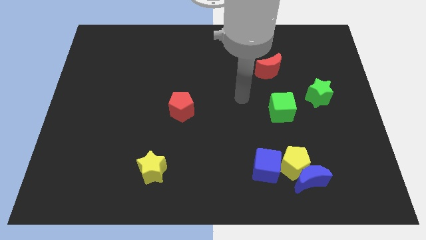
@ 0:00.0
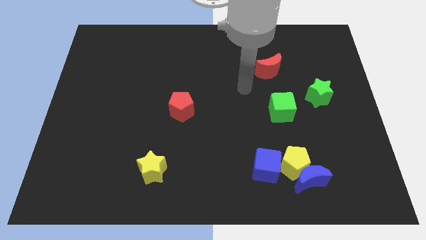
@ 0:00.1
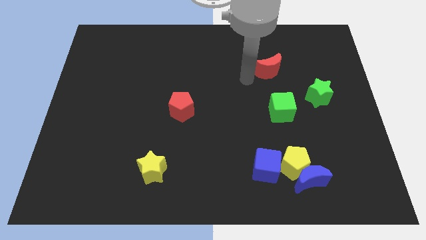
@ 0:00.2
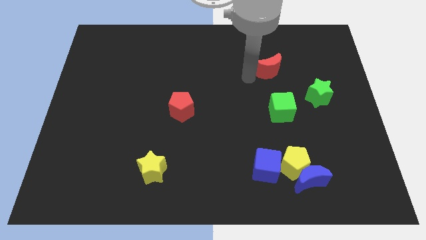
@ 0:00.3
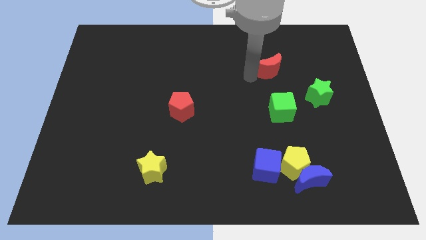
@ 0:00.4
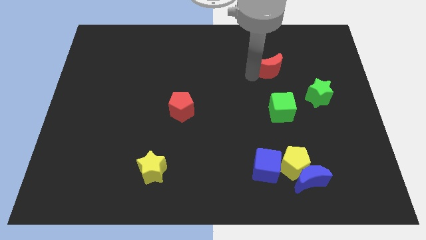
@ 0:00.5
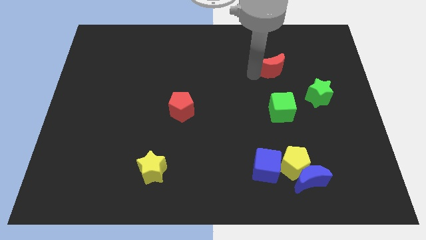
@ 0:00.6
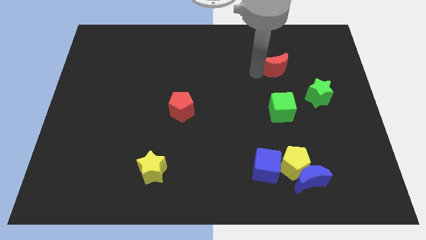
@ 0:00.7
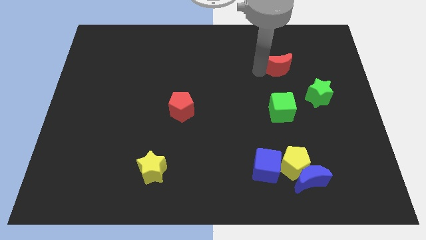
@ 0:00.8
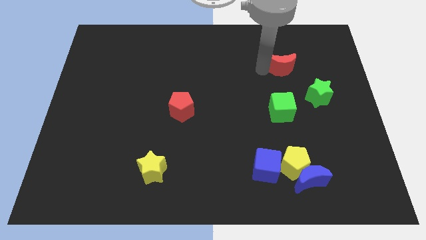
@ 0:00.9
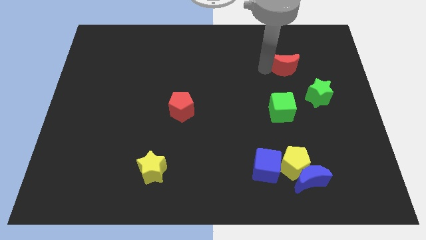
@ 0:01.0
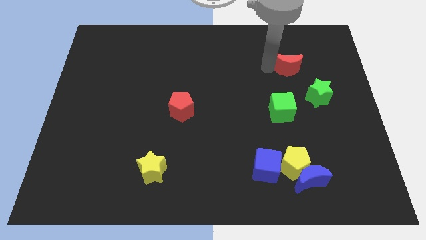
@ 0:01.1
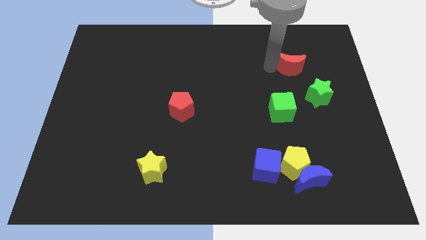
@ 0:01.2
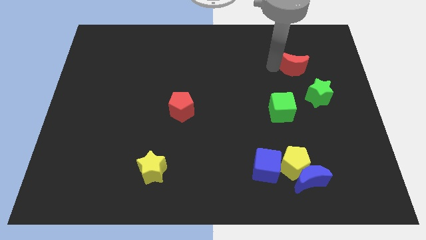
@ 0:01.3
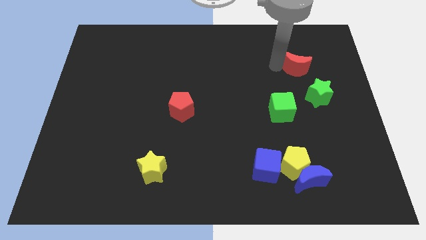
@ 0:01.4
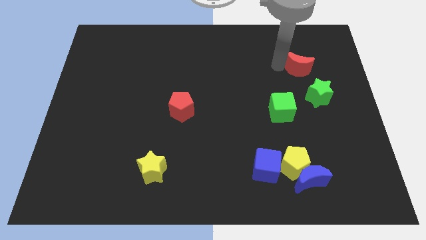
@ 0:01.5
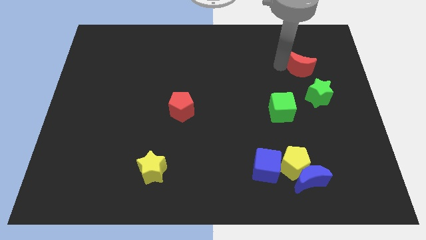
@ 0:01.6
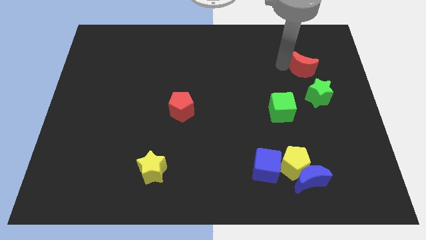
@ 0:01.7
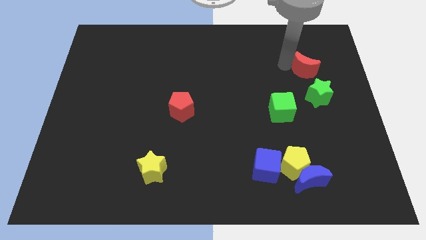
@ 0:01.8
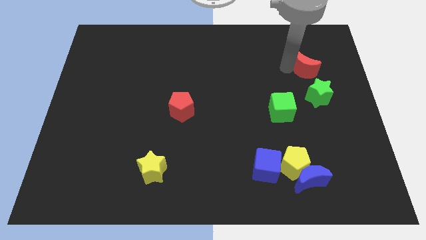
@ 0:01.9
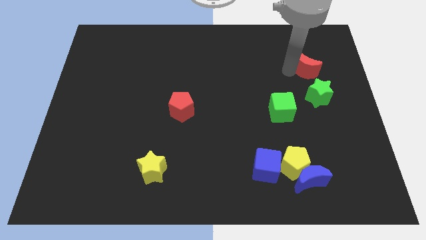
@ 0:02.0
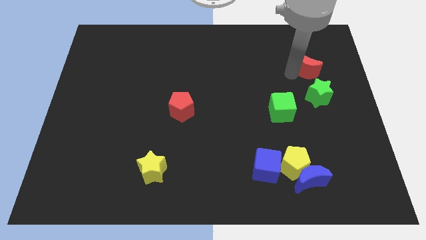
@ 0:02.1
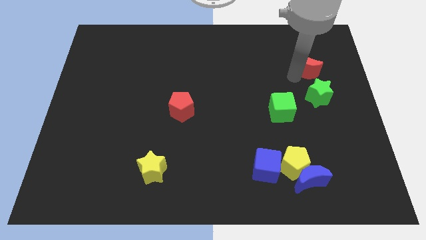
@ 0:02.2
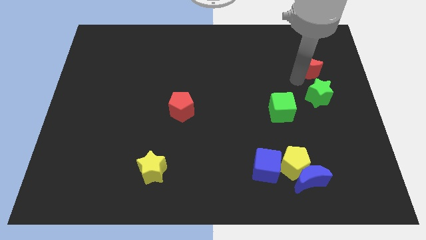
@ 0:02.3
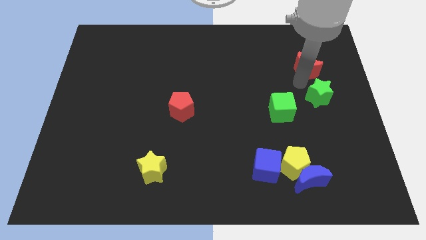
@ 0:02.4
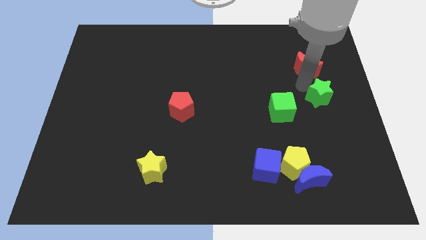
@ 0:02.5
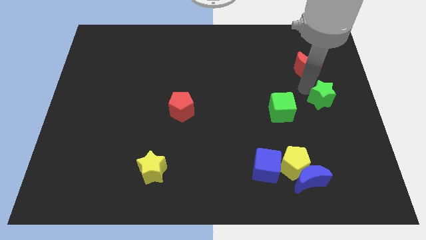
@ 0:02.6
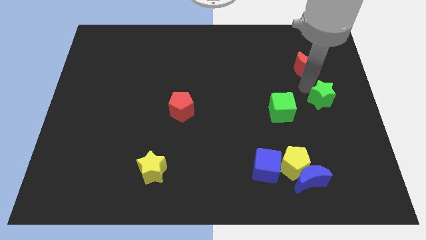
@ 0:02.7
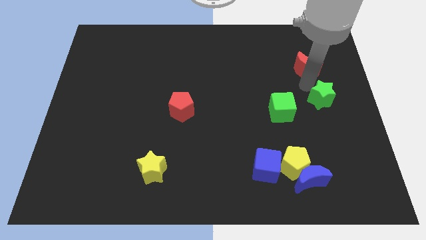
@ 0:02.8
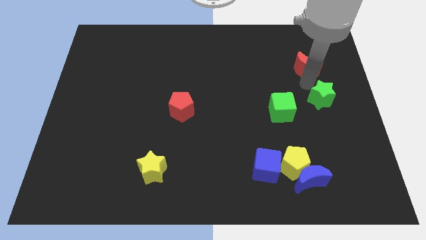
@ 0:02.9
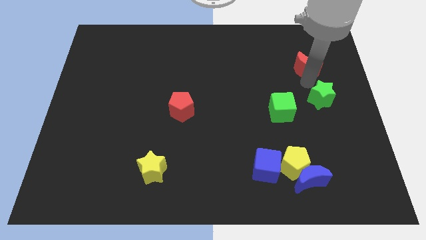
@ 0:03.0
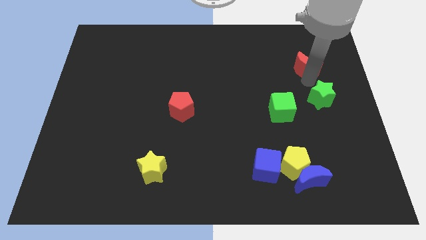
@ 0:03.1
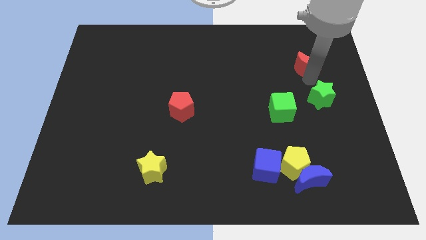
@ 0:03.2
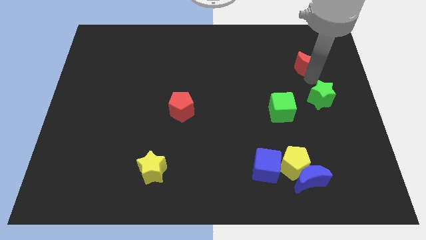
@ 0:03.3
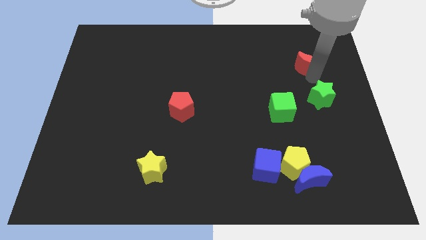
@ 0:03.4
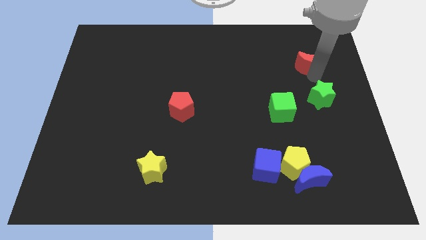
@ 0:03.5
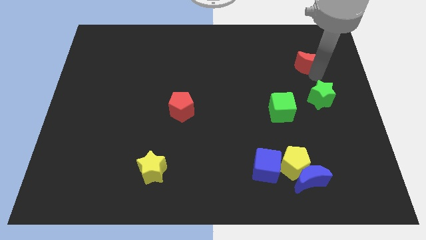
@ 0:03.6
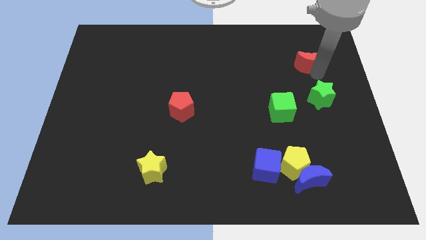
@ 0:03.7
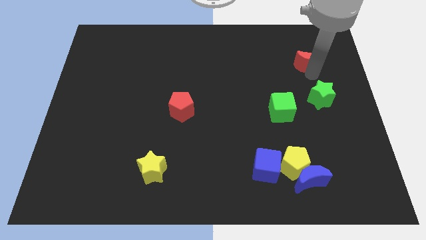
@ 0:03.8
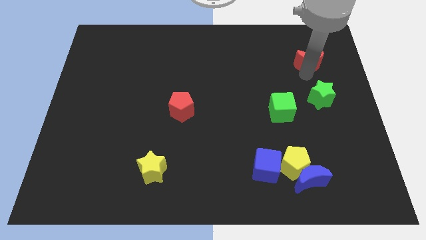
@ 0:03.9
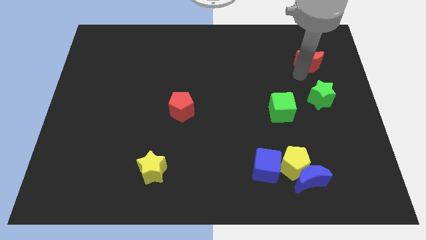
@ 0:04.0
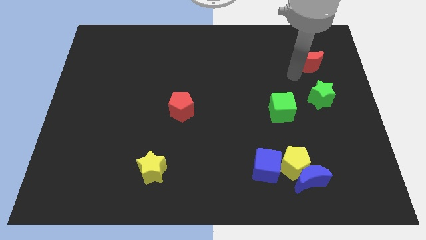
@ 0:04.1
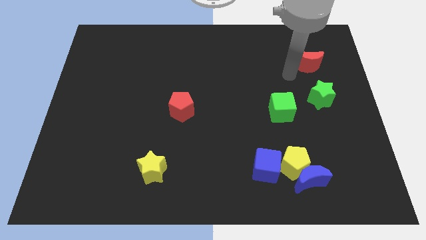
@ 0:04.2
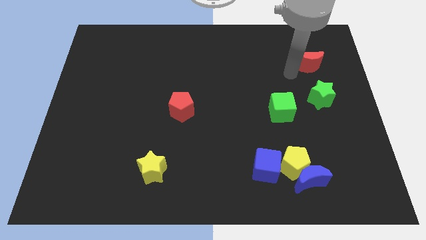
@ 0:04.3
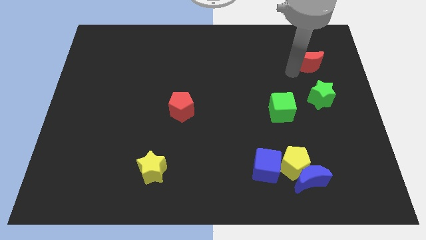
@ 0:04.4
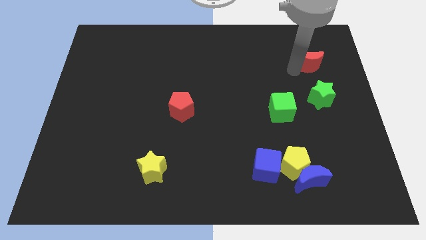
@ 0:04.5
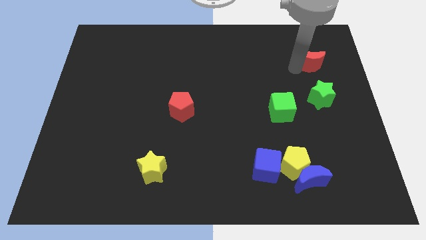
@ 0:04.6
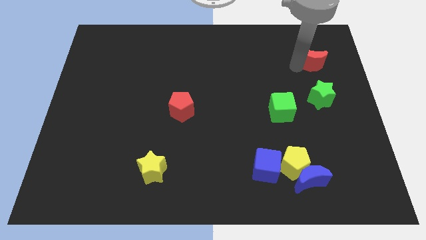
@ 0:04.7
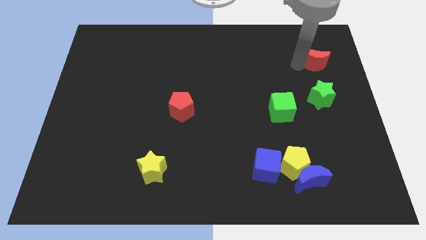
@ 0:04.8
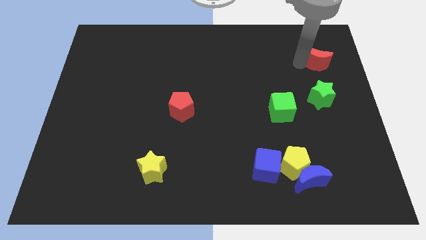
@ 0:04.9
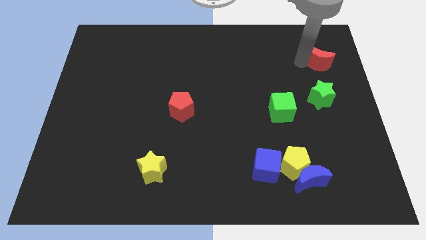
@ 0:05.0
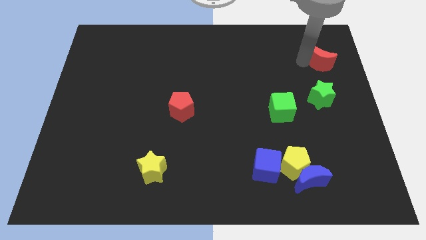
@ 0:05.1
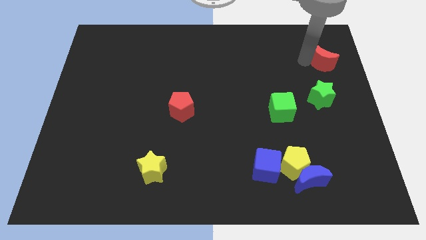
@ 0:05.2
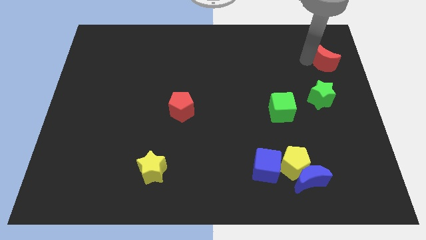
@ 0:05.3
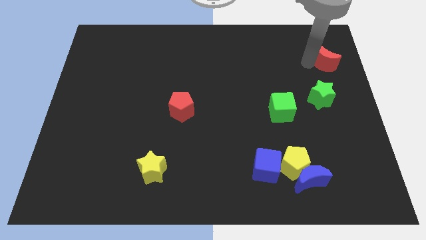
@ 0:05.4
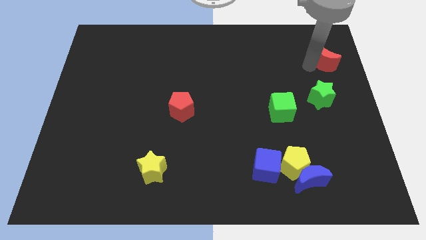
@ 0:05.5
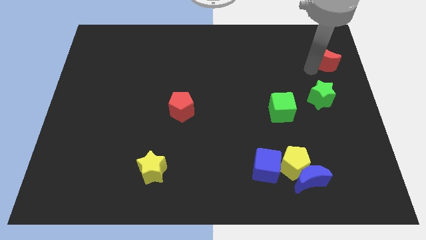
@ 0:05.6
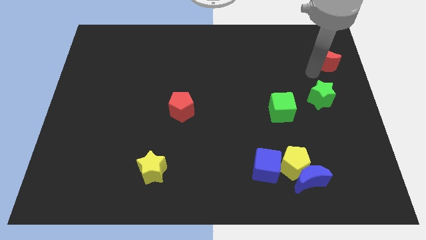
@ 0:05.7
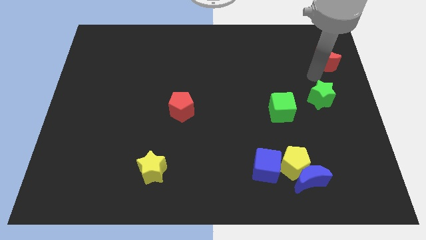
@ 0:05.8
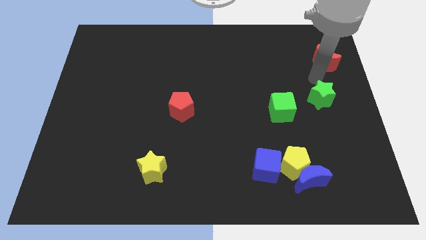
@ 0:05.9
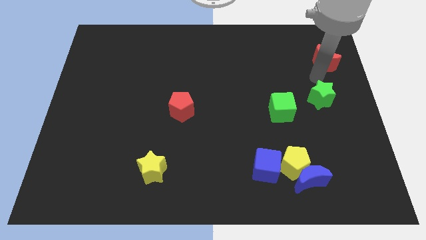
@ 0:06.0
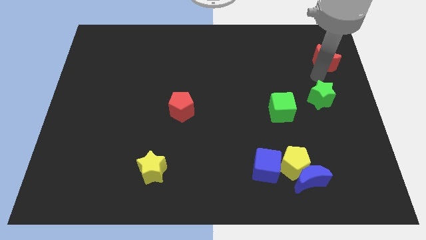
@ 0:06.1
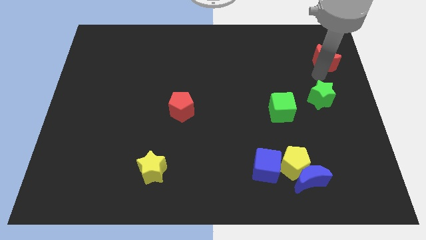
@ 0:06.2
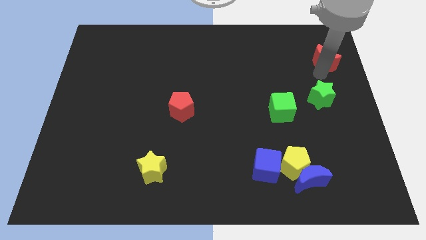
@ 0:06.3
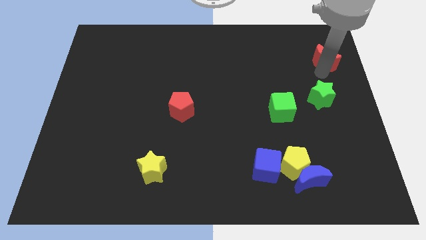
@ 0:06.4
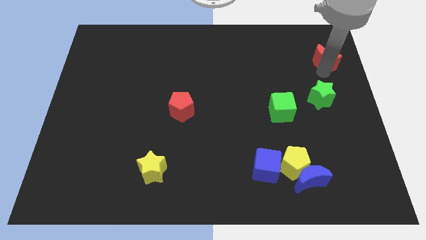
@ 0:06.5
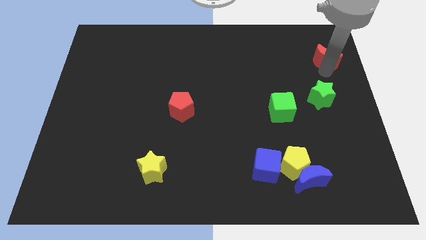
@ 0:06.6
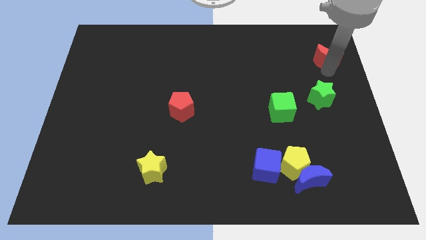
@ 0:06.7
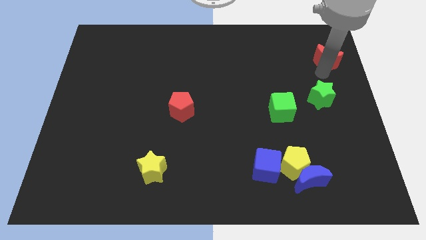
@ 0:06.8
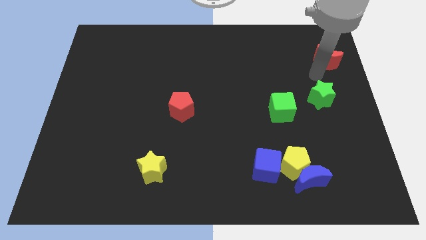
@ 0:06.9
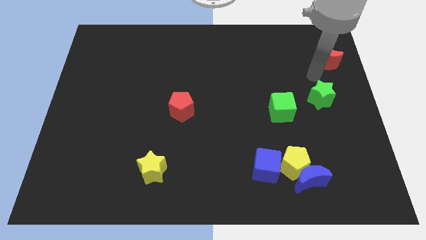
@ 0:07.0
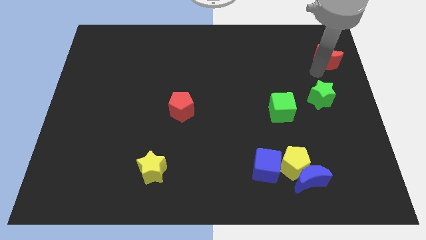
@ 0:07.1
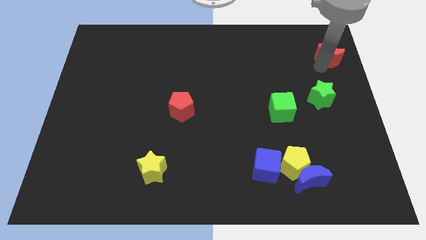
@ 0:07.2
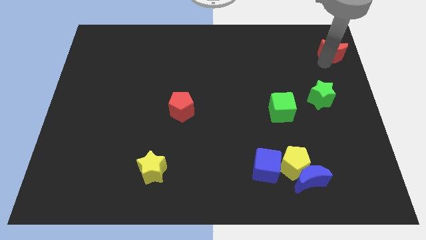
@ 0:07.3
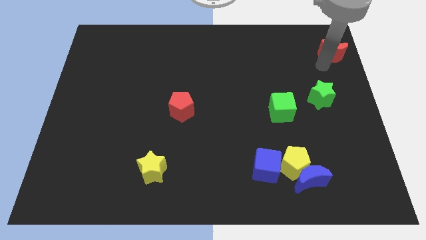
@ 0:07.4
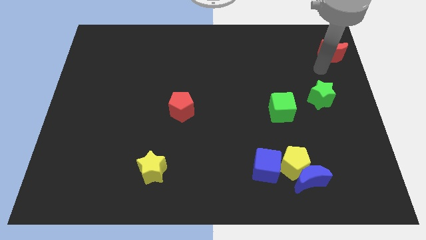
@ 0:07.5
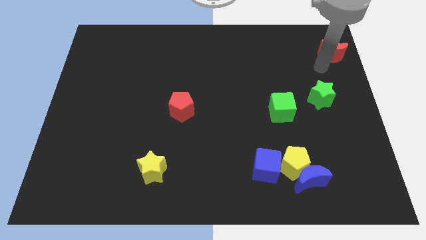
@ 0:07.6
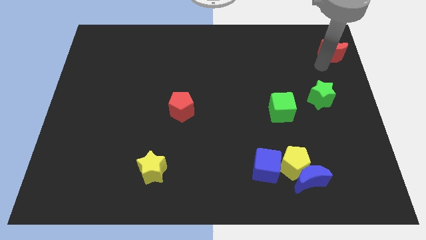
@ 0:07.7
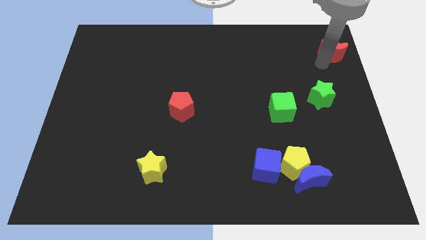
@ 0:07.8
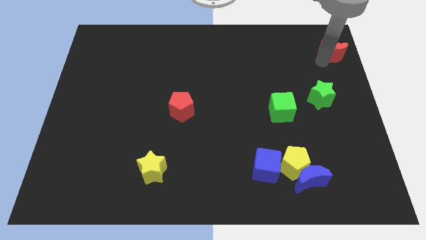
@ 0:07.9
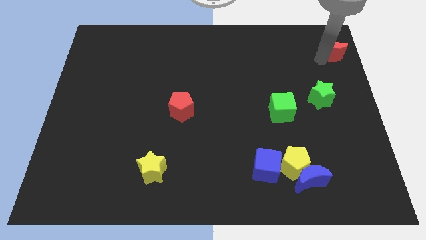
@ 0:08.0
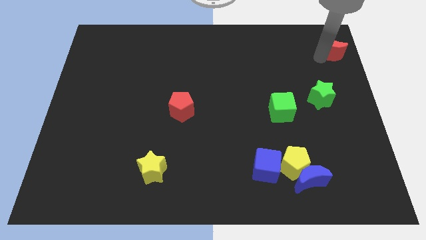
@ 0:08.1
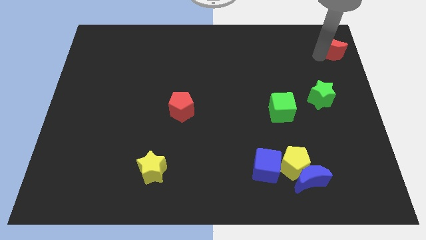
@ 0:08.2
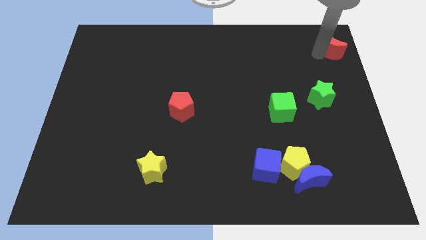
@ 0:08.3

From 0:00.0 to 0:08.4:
slide the red moon to the top right
